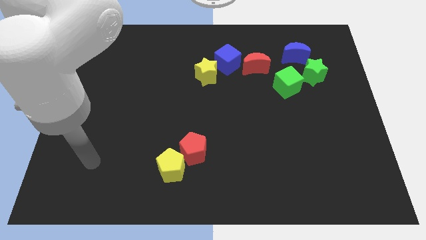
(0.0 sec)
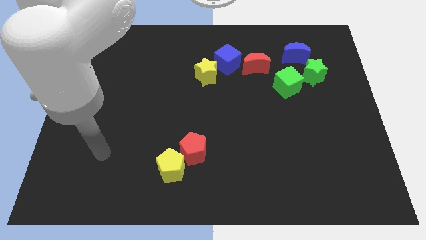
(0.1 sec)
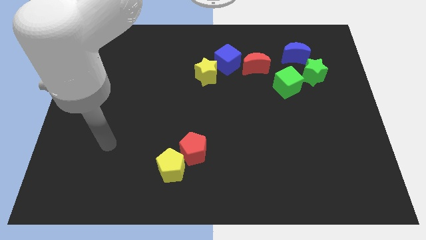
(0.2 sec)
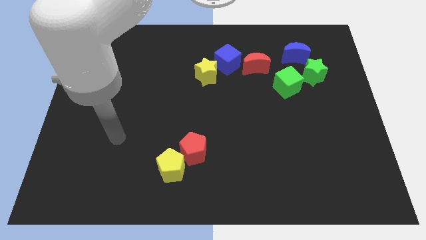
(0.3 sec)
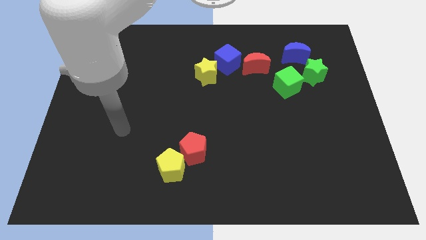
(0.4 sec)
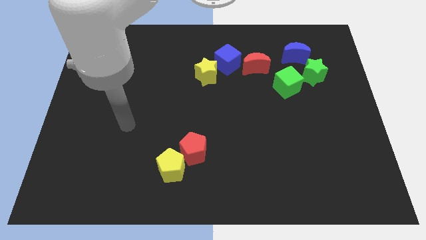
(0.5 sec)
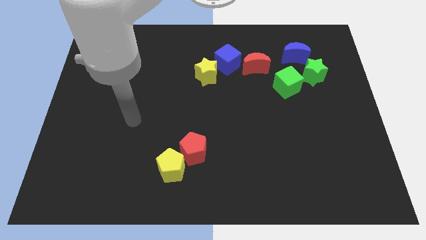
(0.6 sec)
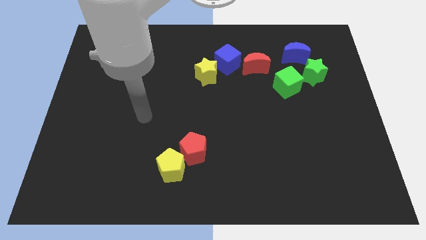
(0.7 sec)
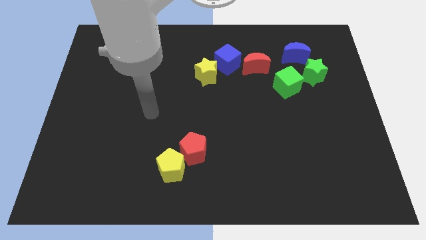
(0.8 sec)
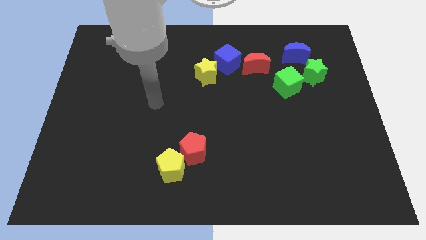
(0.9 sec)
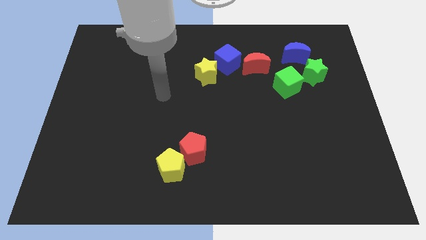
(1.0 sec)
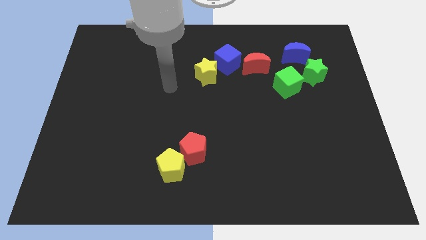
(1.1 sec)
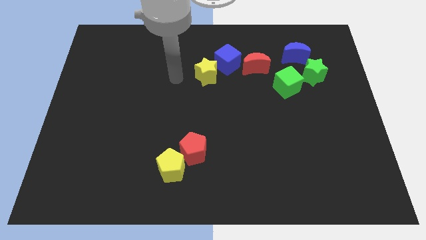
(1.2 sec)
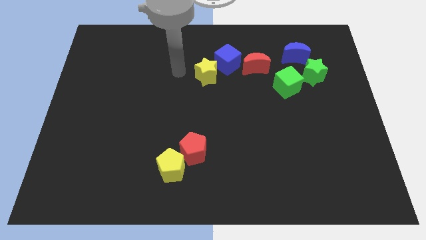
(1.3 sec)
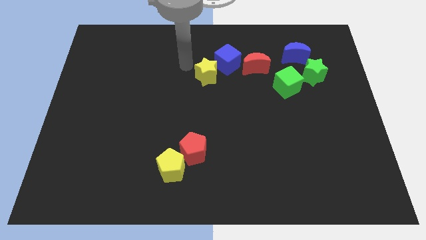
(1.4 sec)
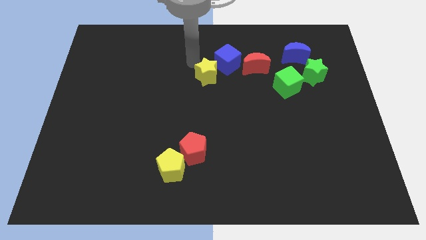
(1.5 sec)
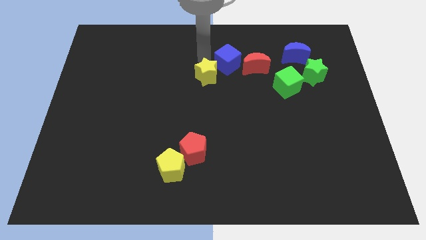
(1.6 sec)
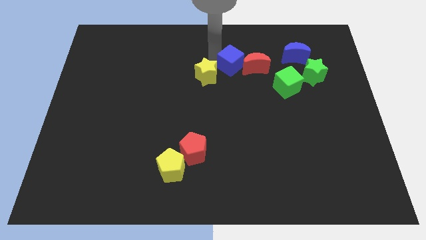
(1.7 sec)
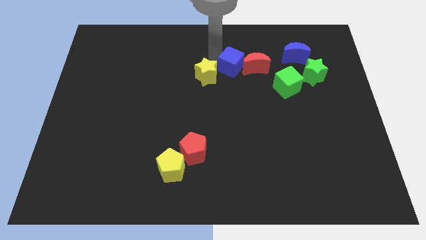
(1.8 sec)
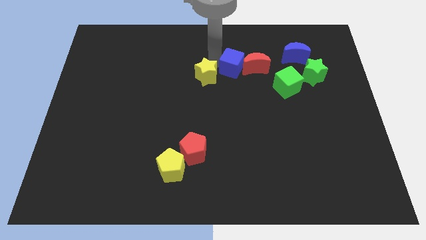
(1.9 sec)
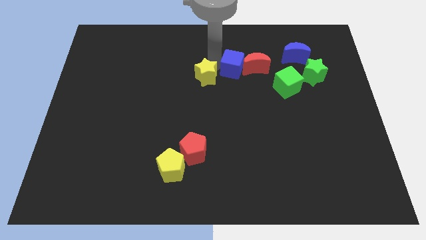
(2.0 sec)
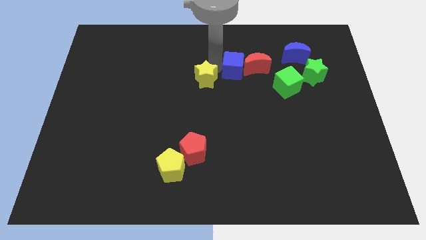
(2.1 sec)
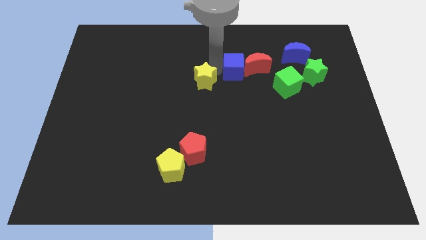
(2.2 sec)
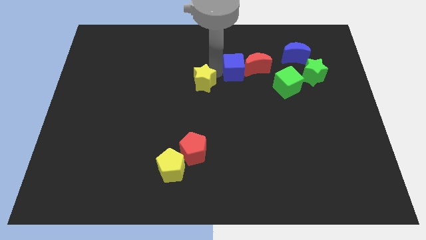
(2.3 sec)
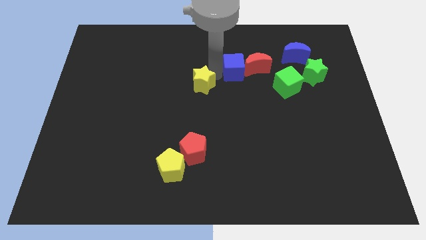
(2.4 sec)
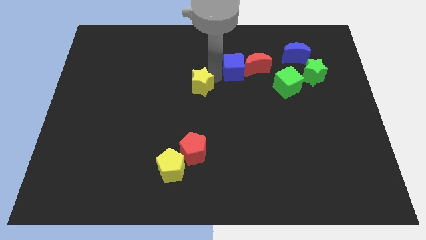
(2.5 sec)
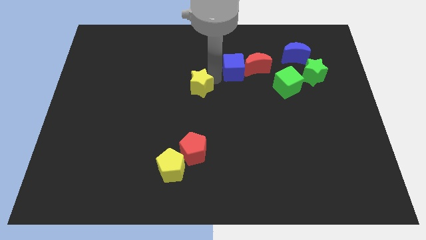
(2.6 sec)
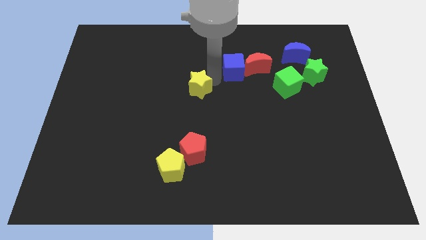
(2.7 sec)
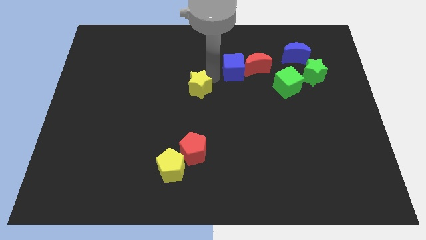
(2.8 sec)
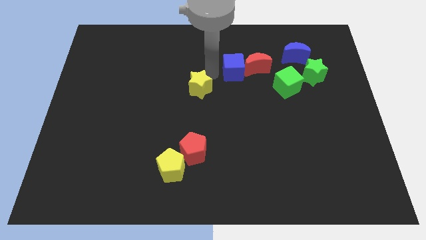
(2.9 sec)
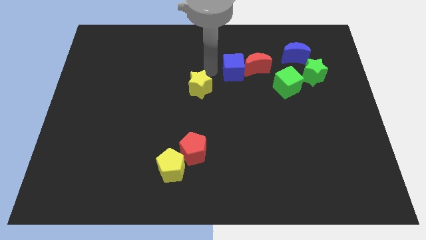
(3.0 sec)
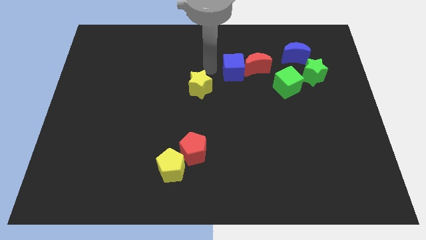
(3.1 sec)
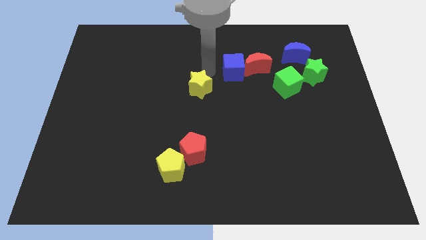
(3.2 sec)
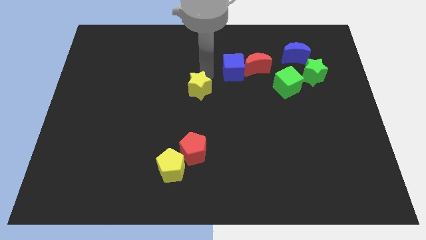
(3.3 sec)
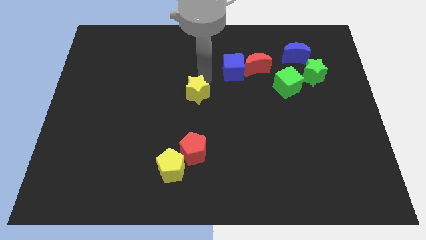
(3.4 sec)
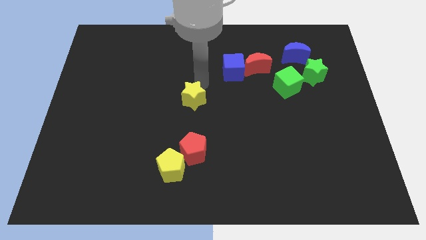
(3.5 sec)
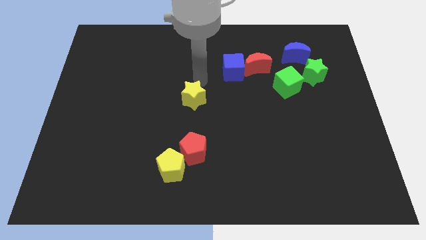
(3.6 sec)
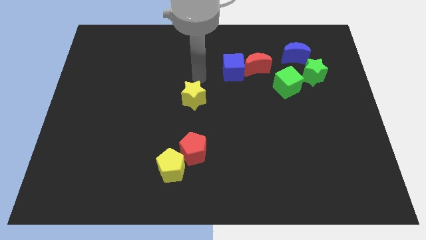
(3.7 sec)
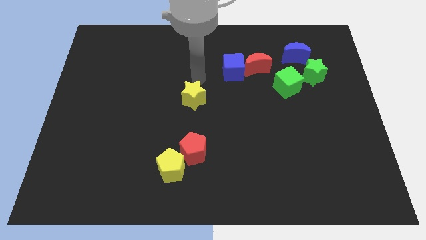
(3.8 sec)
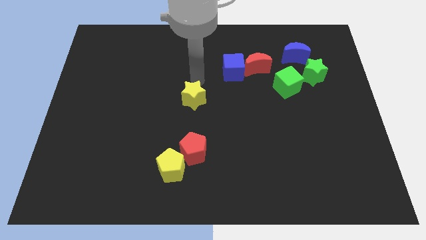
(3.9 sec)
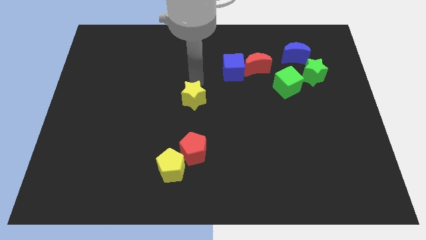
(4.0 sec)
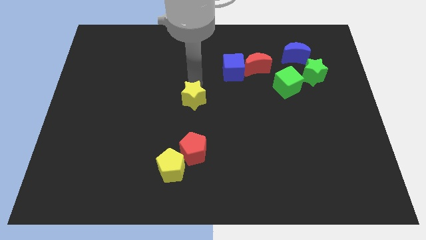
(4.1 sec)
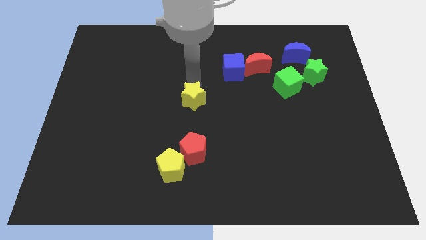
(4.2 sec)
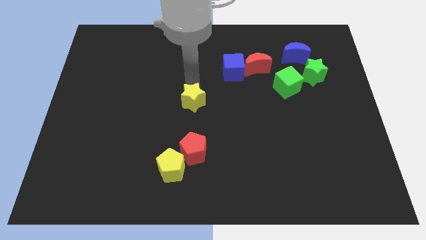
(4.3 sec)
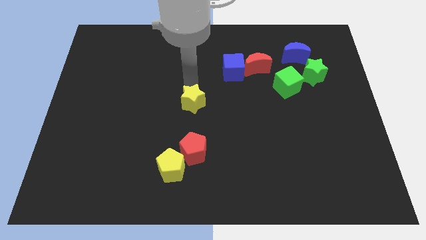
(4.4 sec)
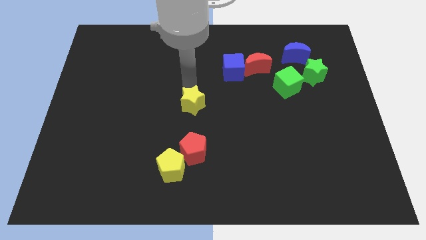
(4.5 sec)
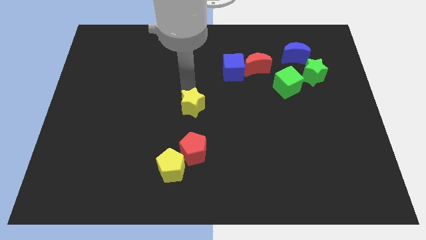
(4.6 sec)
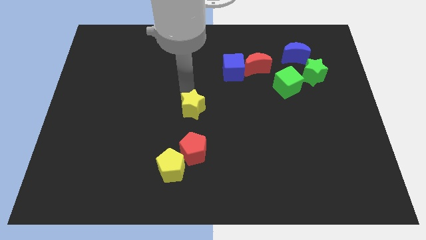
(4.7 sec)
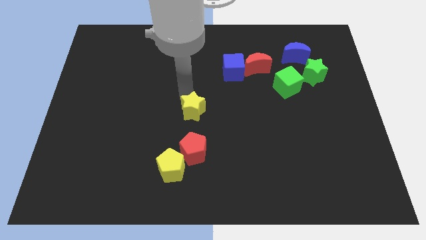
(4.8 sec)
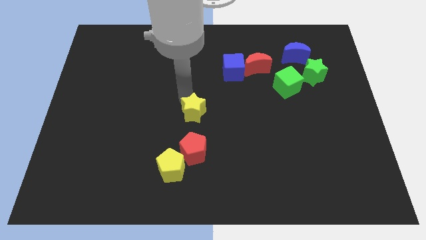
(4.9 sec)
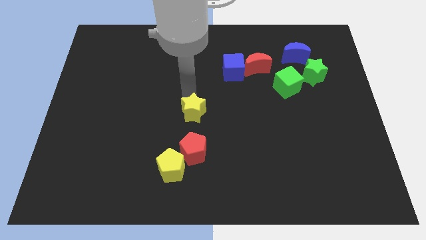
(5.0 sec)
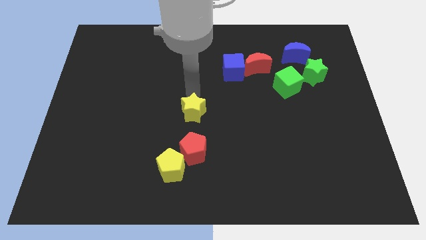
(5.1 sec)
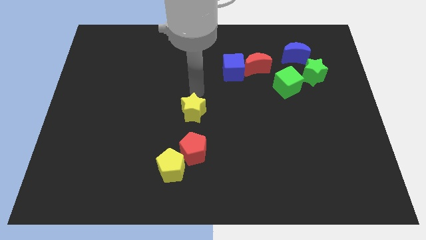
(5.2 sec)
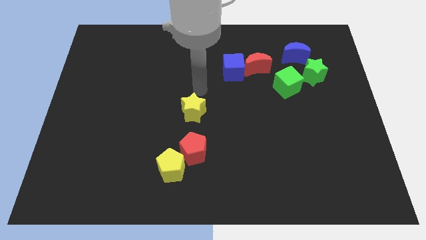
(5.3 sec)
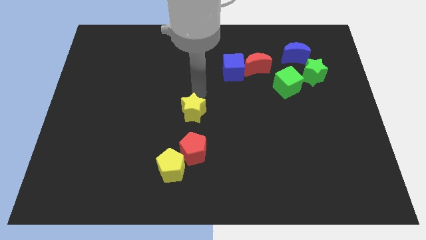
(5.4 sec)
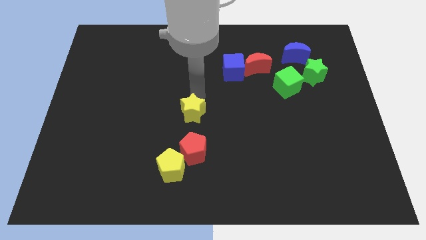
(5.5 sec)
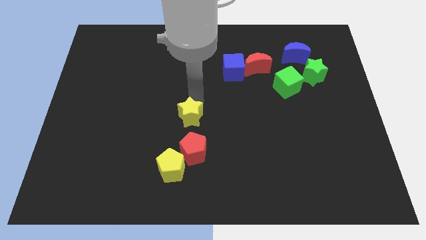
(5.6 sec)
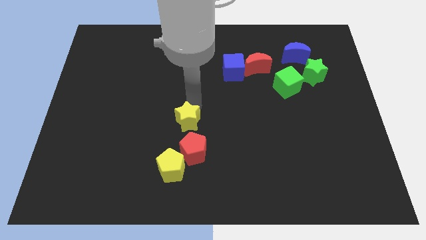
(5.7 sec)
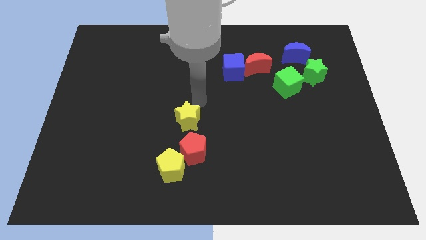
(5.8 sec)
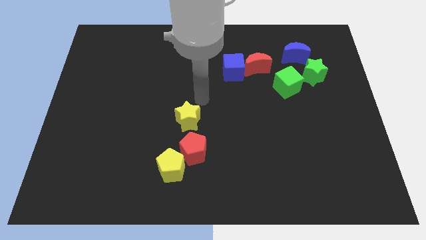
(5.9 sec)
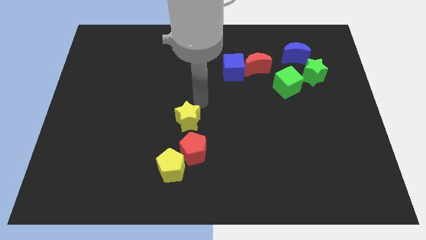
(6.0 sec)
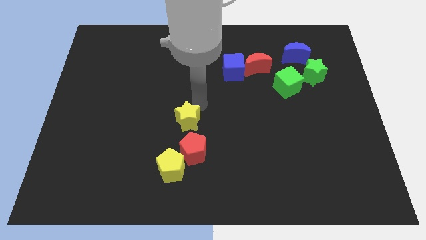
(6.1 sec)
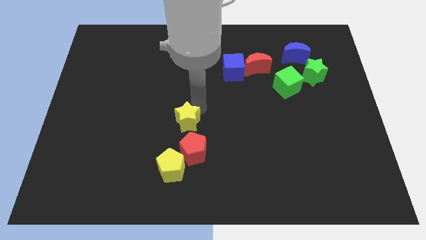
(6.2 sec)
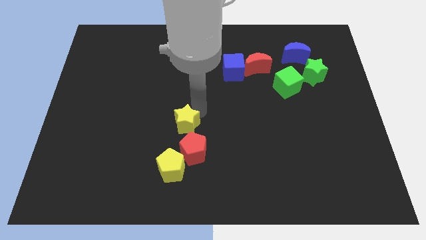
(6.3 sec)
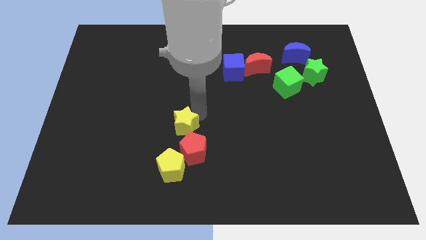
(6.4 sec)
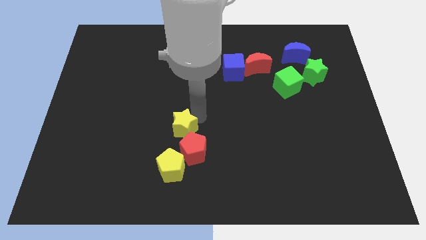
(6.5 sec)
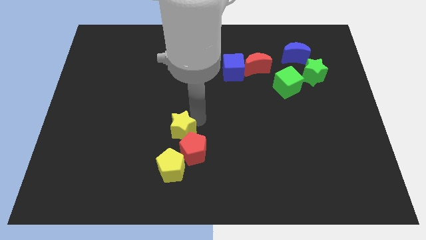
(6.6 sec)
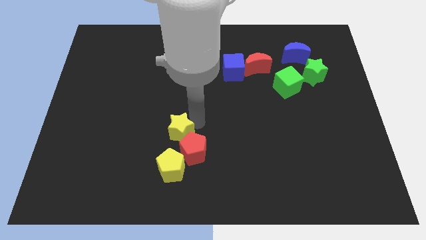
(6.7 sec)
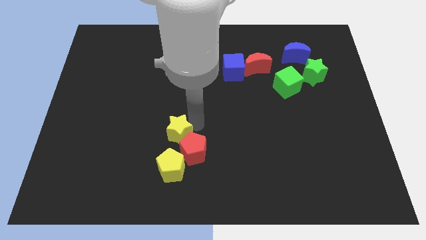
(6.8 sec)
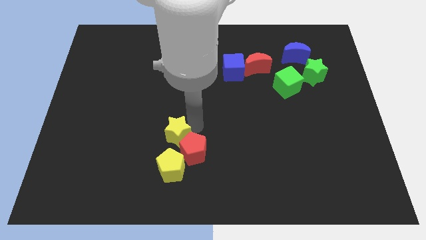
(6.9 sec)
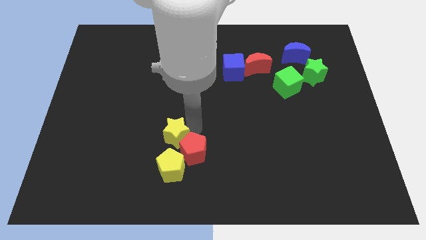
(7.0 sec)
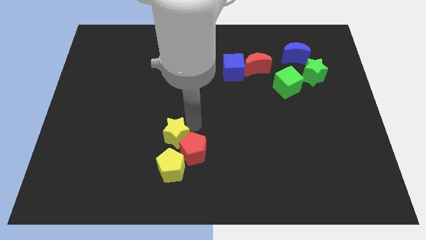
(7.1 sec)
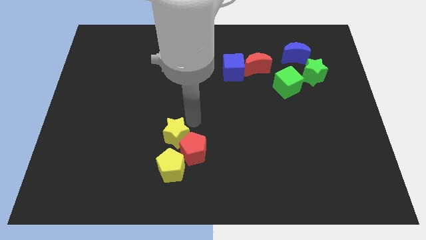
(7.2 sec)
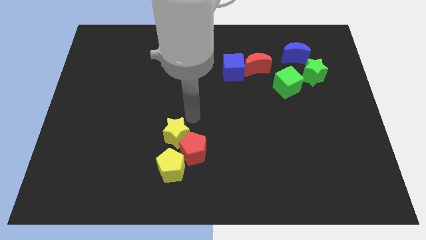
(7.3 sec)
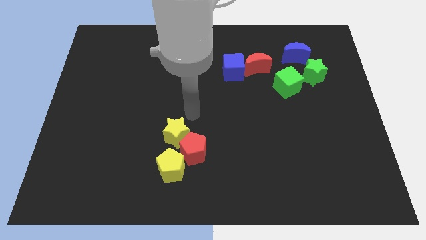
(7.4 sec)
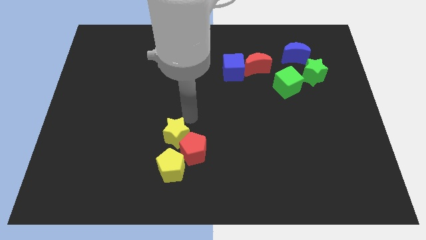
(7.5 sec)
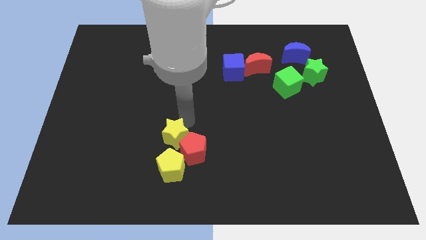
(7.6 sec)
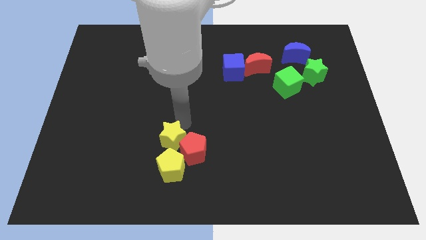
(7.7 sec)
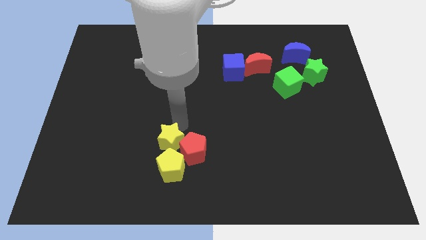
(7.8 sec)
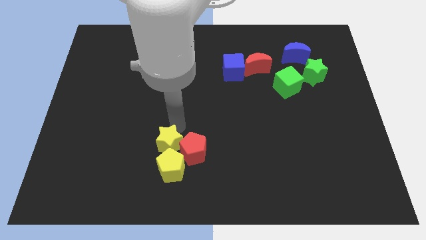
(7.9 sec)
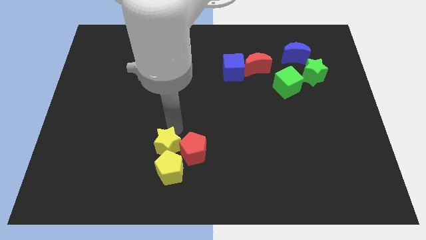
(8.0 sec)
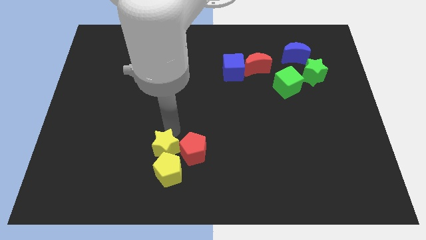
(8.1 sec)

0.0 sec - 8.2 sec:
move the yellow star close to the yellow pentagon
